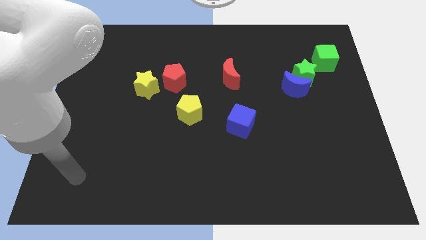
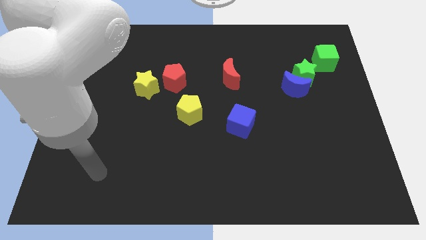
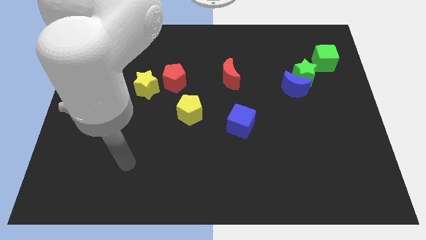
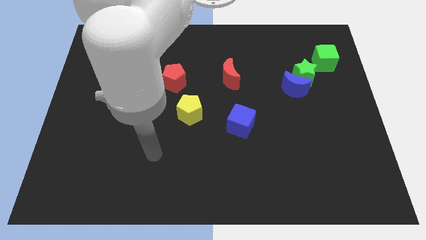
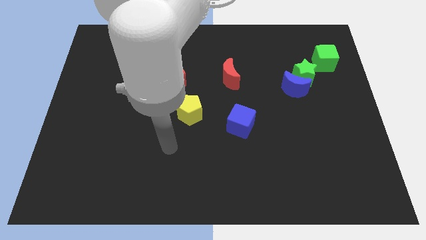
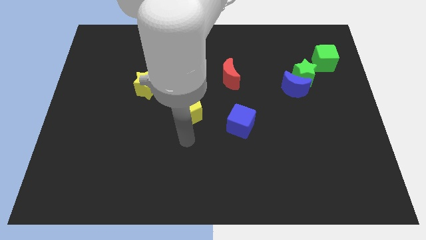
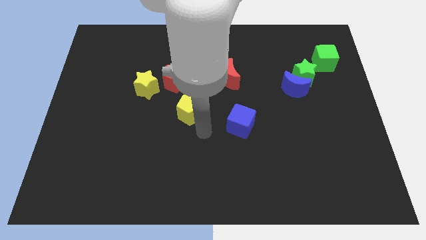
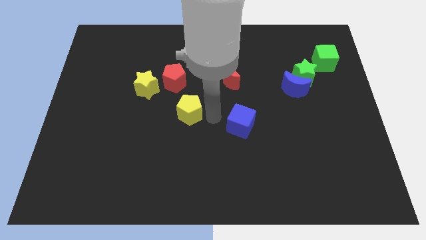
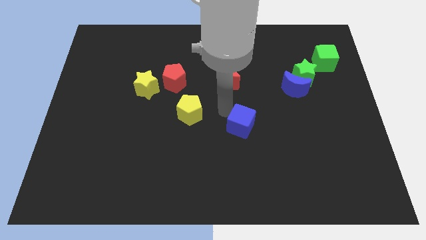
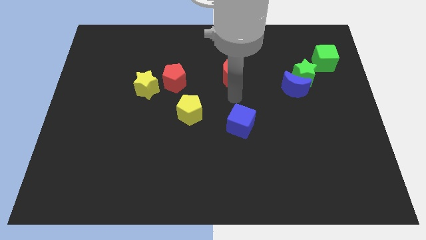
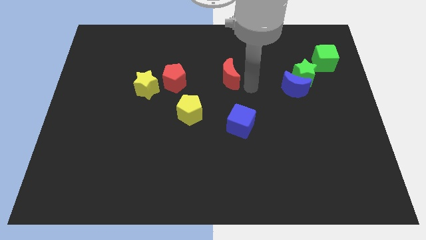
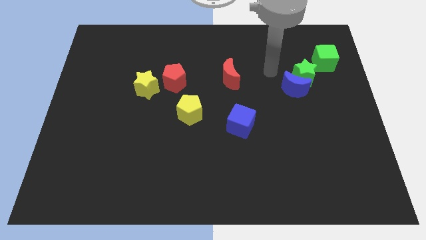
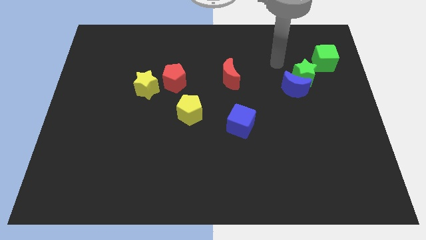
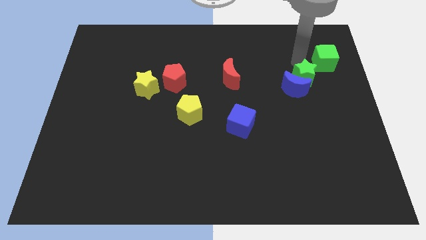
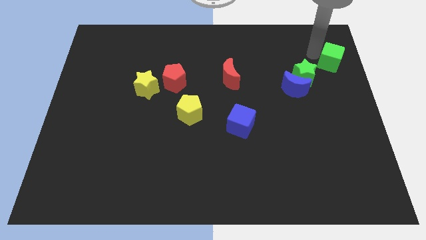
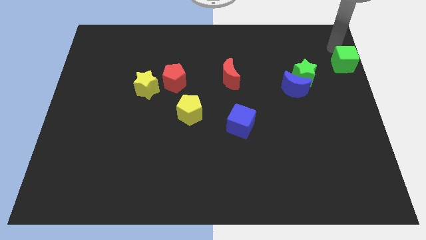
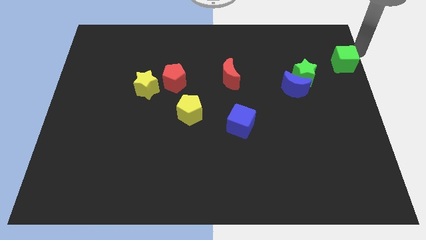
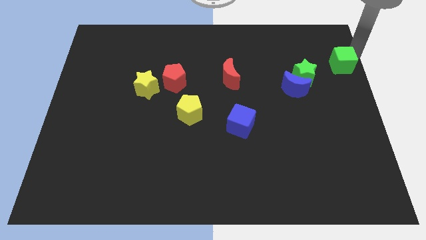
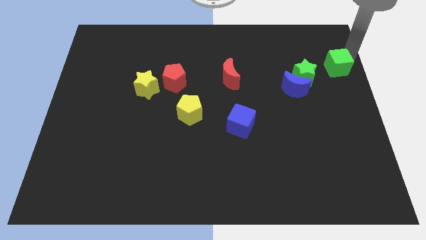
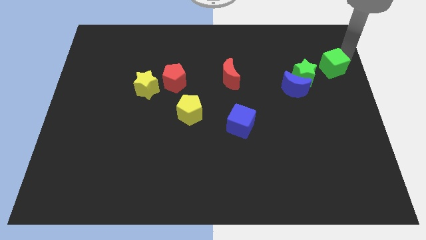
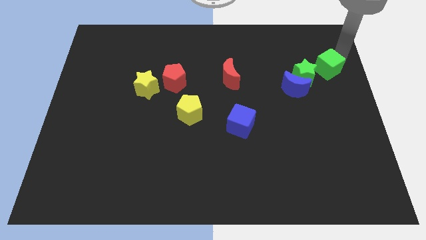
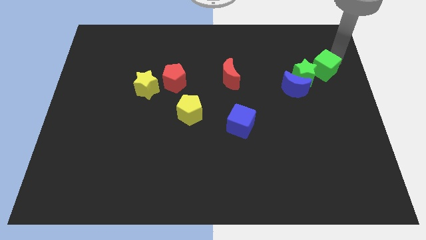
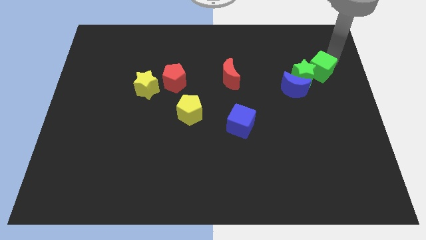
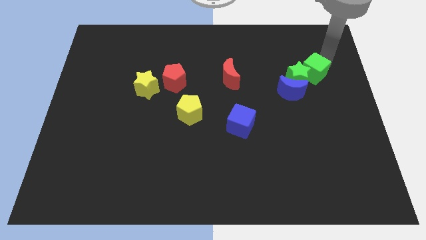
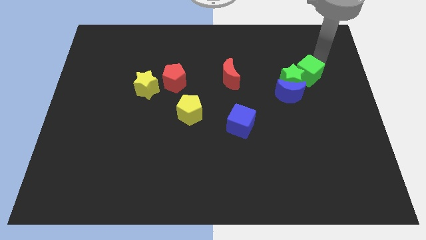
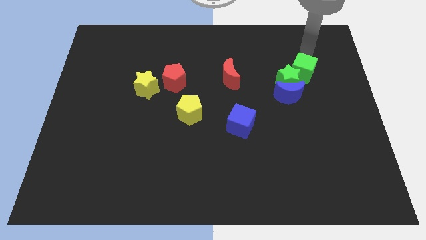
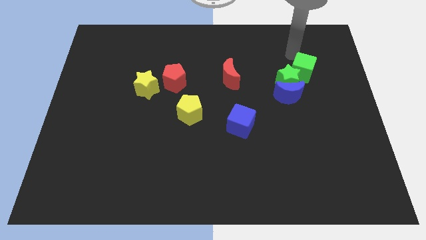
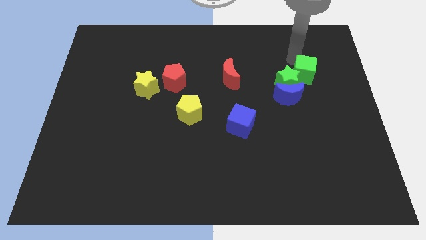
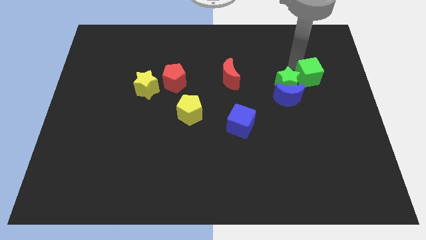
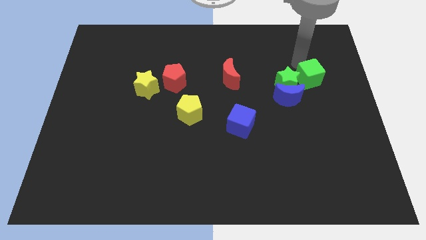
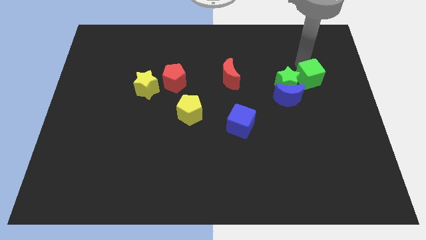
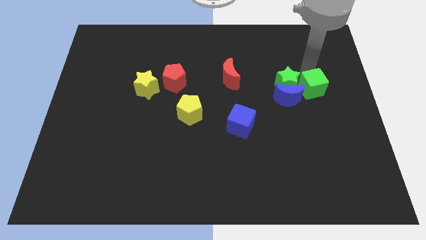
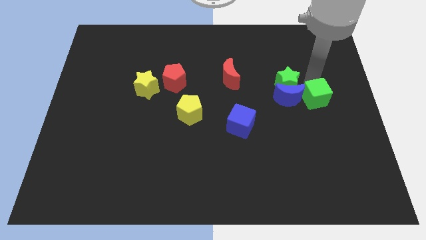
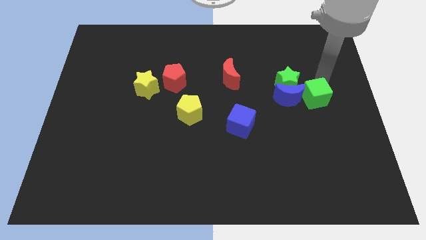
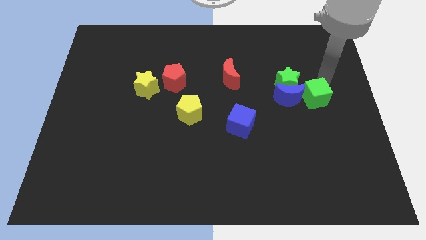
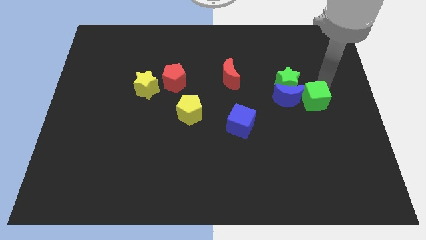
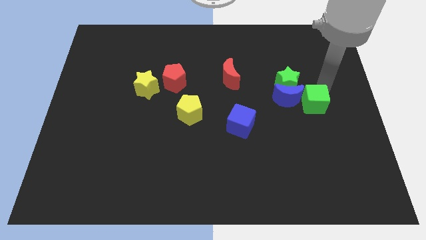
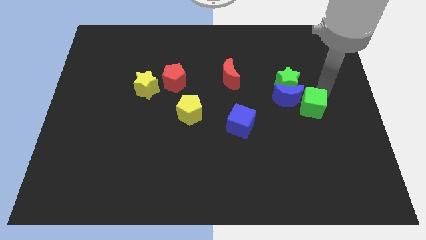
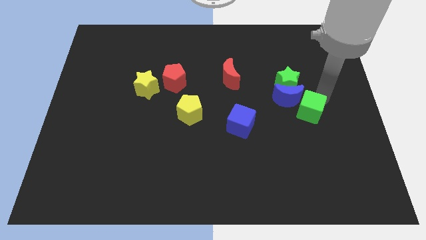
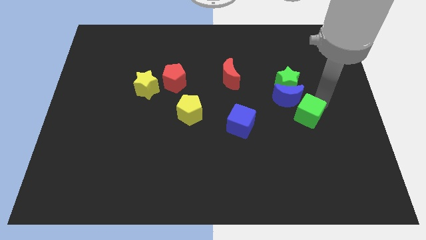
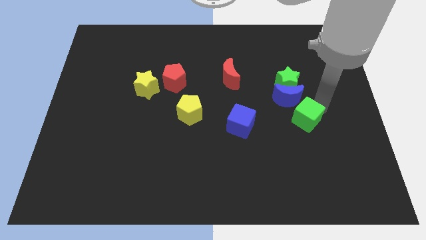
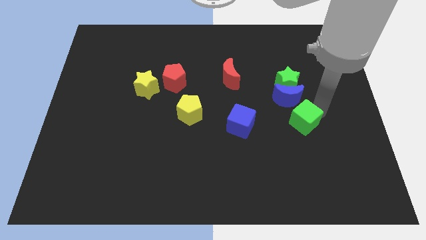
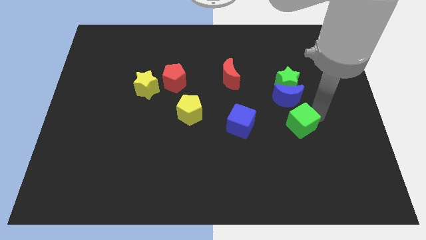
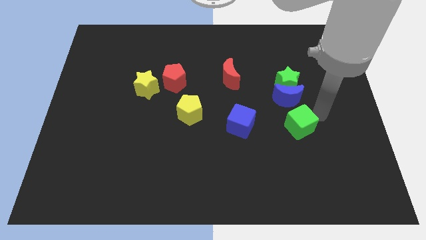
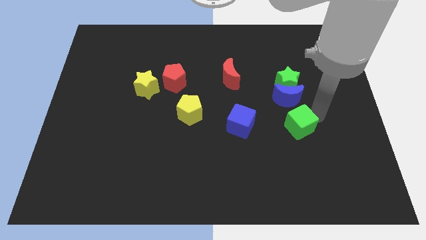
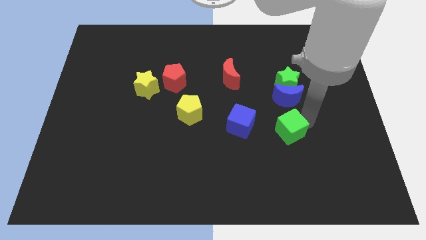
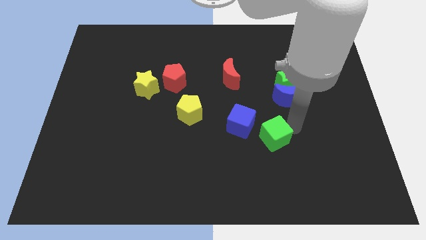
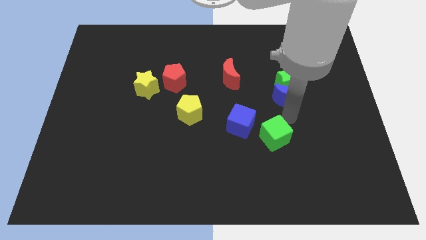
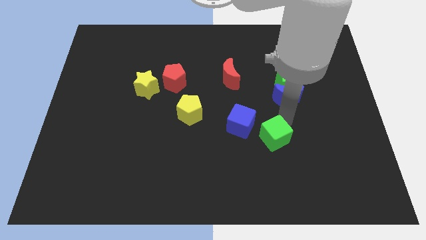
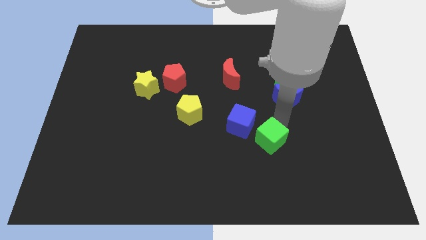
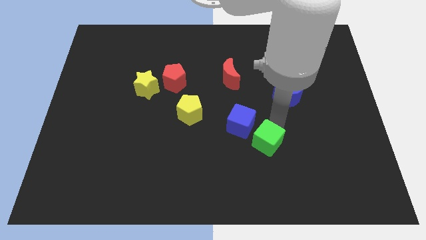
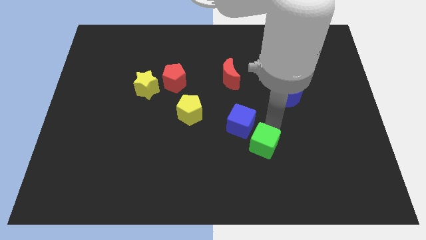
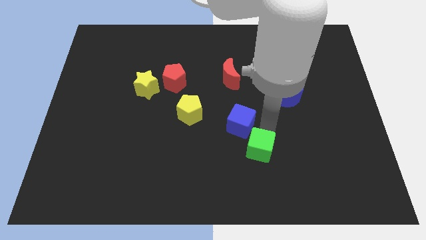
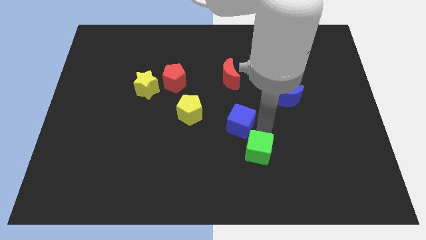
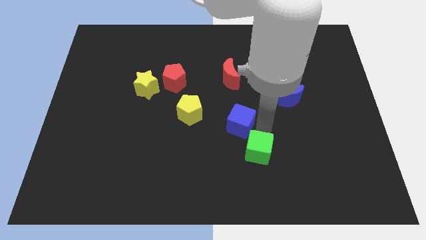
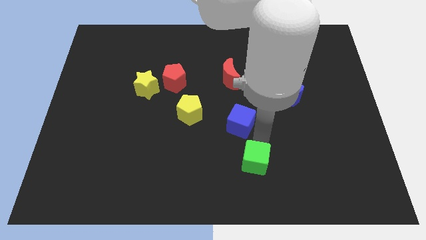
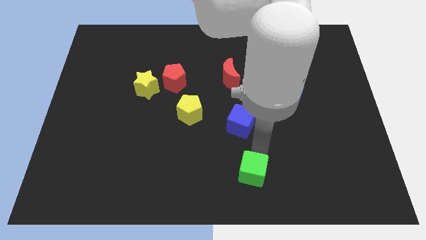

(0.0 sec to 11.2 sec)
move the green cube to the bottom
